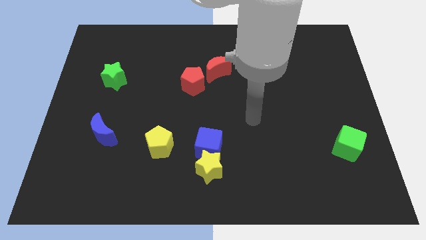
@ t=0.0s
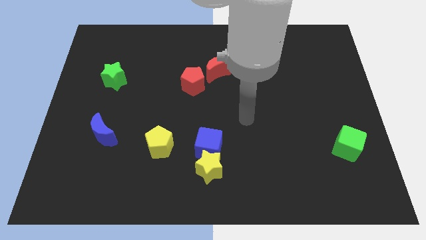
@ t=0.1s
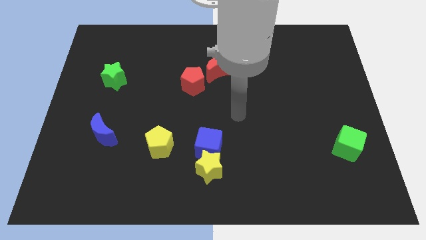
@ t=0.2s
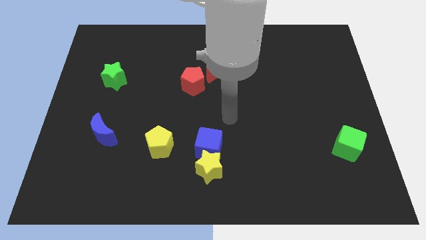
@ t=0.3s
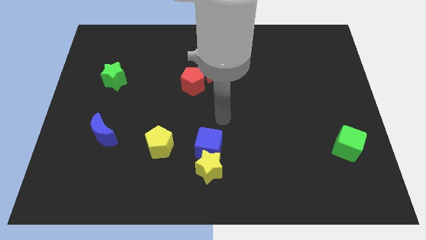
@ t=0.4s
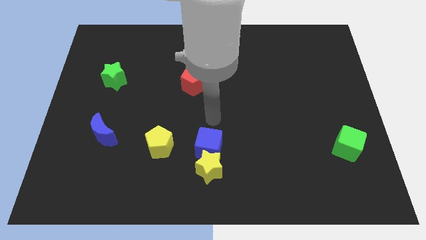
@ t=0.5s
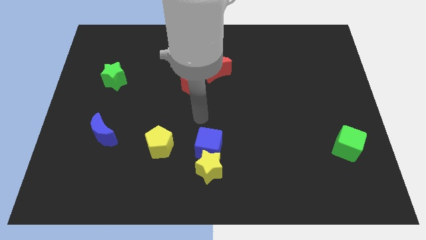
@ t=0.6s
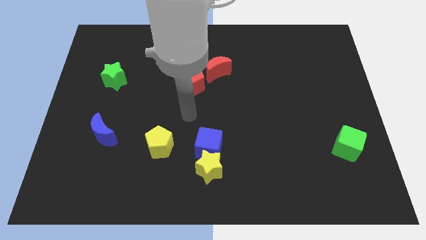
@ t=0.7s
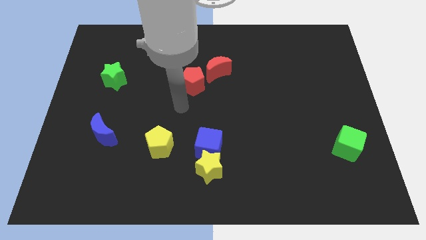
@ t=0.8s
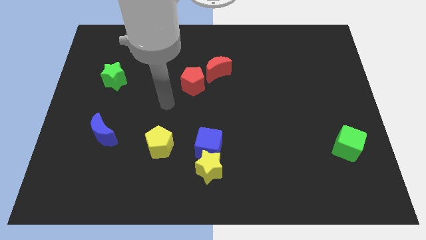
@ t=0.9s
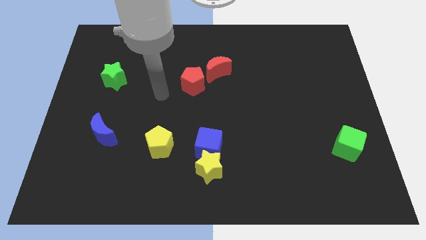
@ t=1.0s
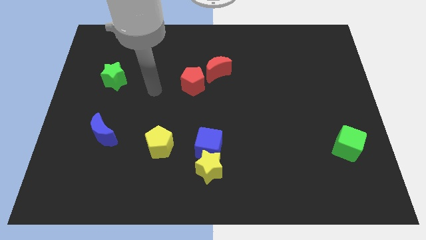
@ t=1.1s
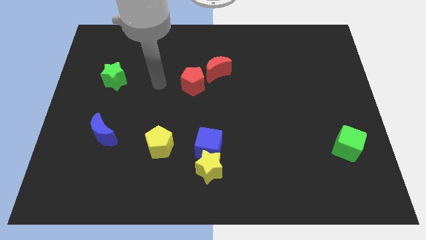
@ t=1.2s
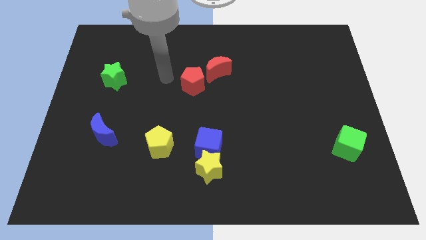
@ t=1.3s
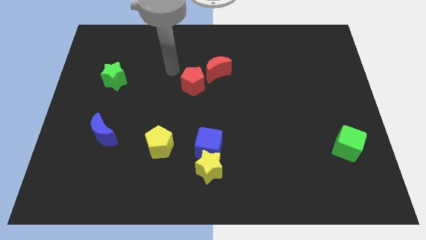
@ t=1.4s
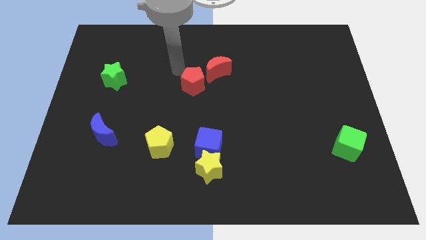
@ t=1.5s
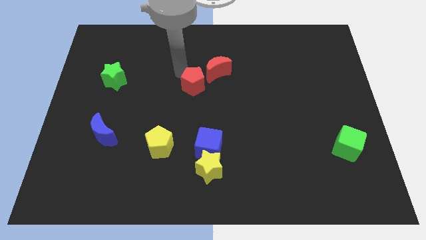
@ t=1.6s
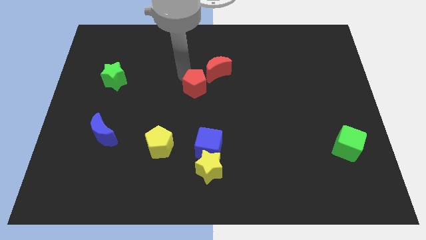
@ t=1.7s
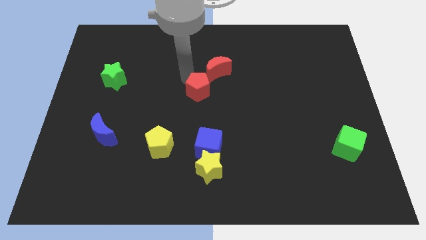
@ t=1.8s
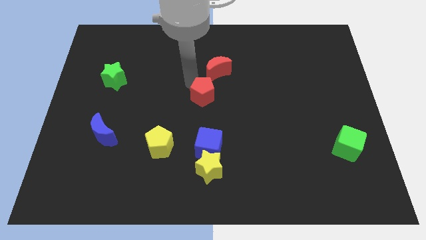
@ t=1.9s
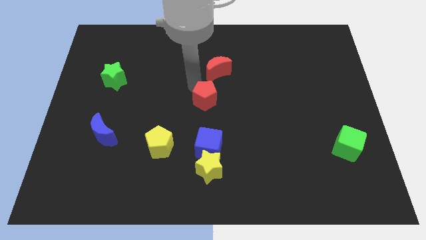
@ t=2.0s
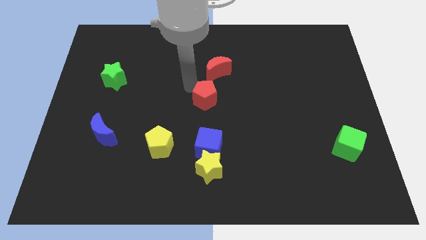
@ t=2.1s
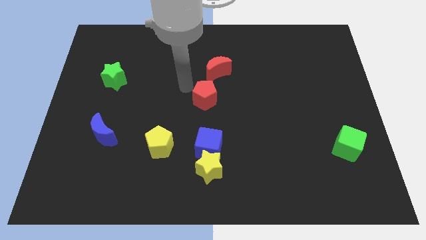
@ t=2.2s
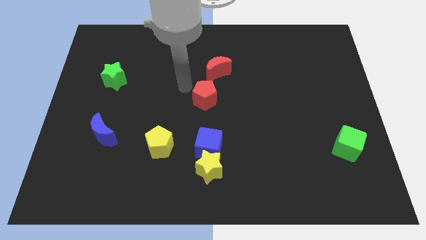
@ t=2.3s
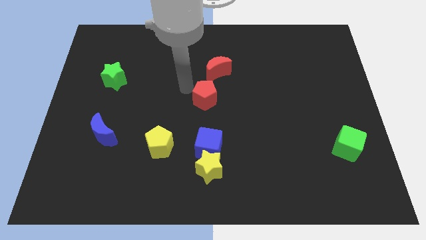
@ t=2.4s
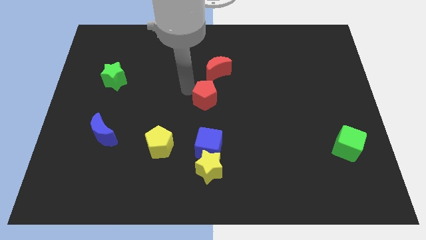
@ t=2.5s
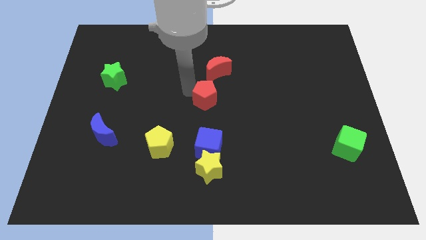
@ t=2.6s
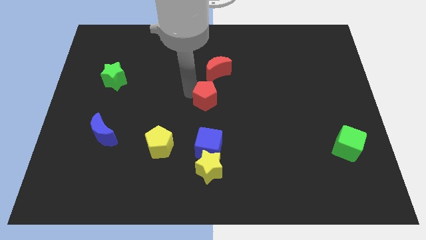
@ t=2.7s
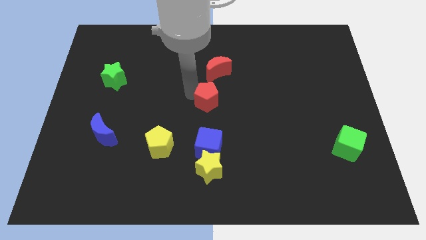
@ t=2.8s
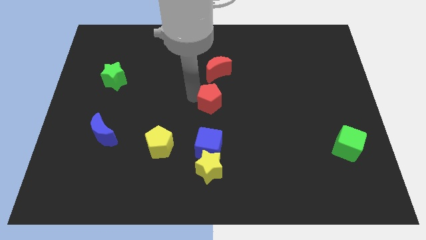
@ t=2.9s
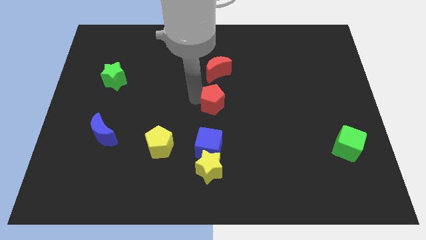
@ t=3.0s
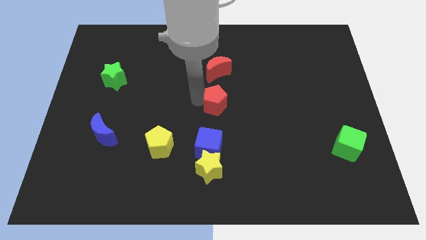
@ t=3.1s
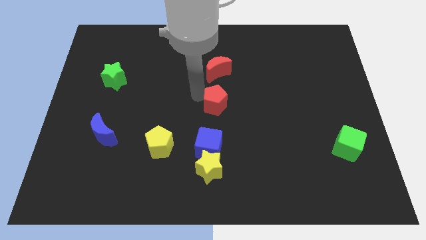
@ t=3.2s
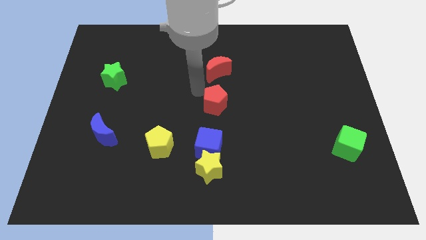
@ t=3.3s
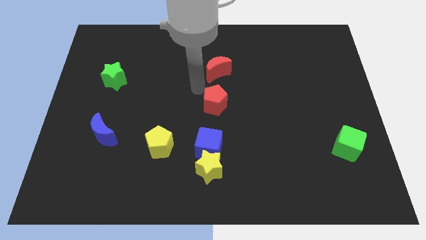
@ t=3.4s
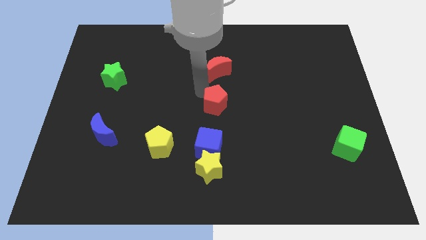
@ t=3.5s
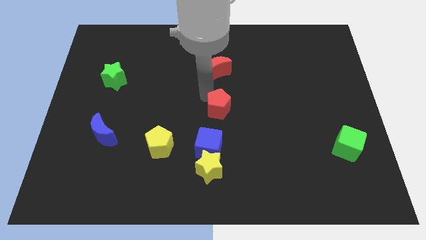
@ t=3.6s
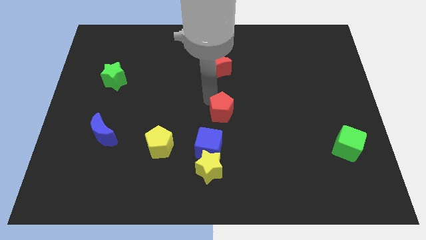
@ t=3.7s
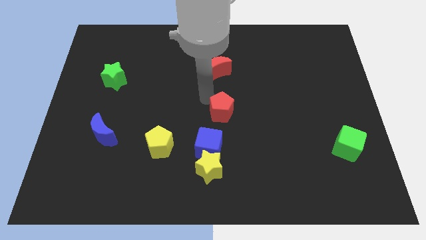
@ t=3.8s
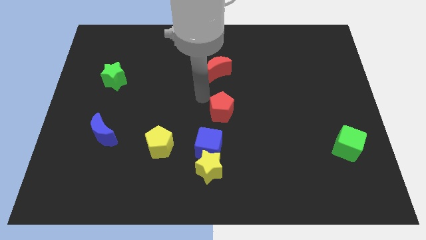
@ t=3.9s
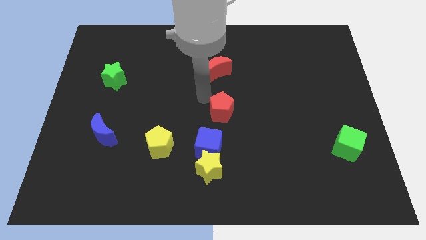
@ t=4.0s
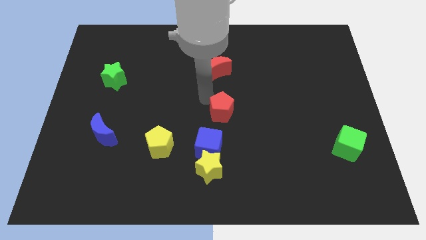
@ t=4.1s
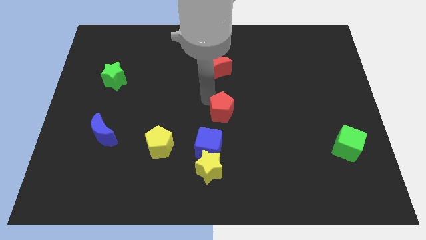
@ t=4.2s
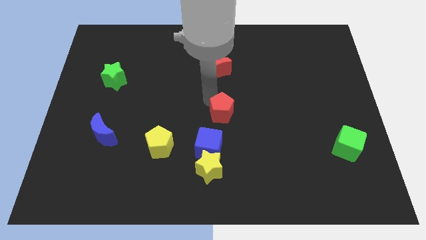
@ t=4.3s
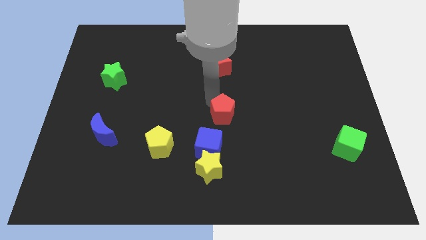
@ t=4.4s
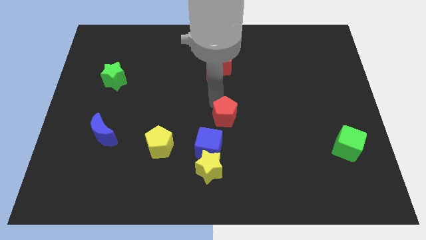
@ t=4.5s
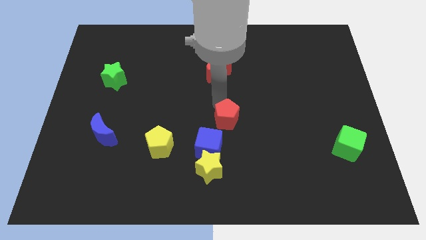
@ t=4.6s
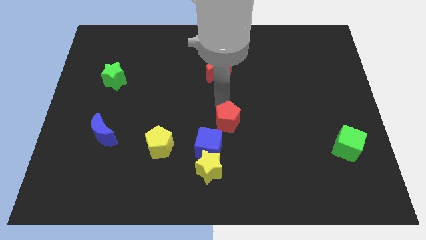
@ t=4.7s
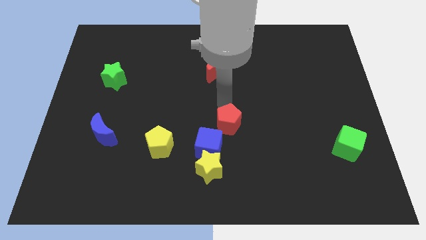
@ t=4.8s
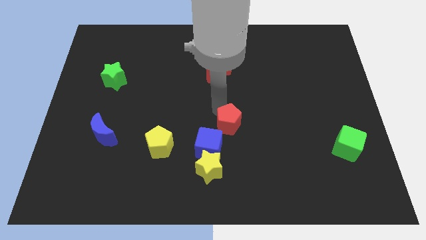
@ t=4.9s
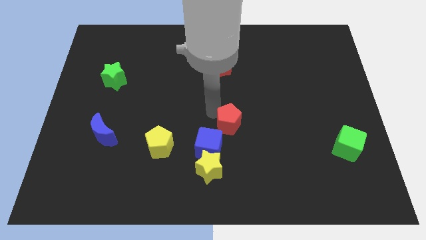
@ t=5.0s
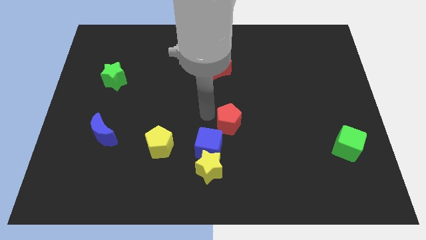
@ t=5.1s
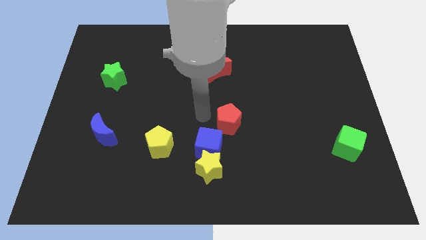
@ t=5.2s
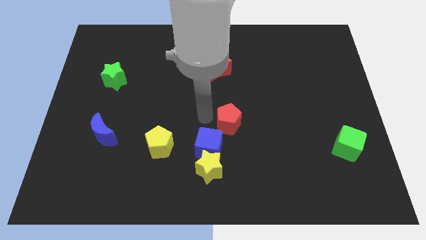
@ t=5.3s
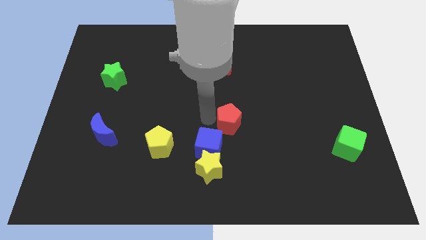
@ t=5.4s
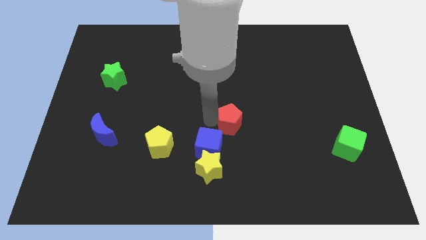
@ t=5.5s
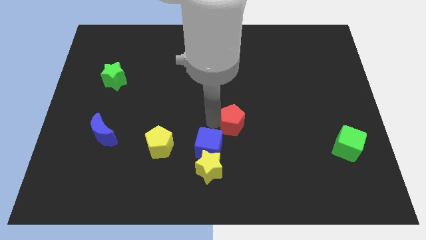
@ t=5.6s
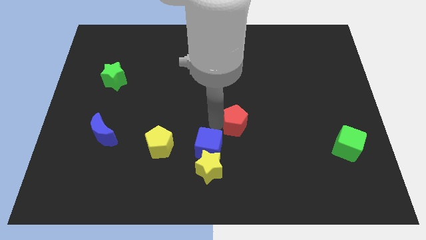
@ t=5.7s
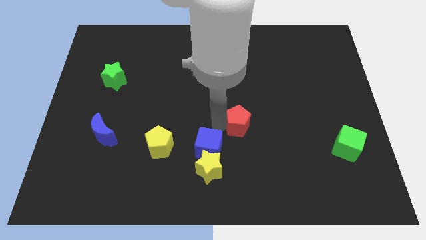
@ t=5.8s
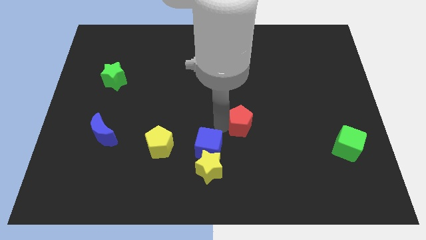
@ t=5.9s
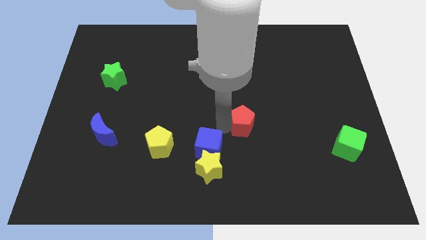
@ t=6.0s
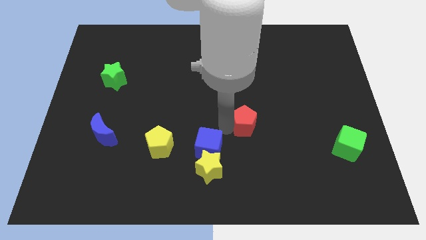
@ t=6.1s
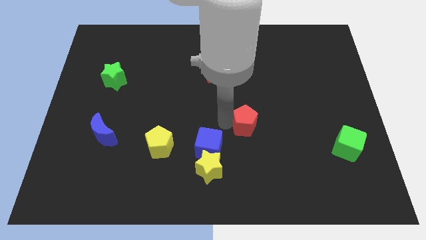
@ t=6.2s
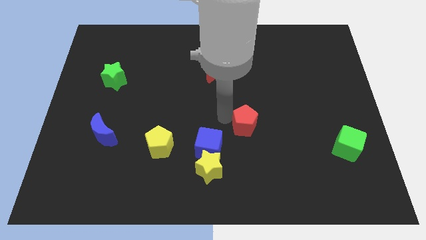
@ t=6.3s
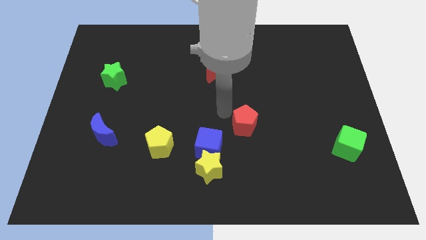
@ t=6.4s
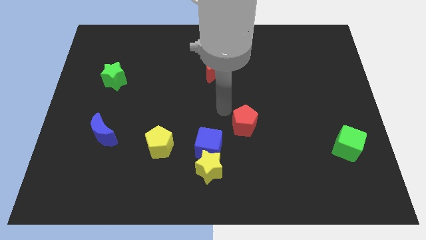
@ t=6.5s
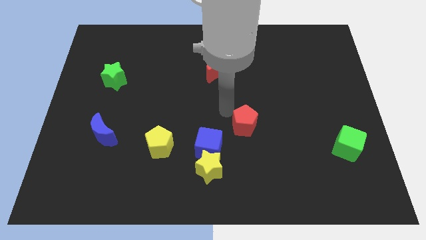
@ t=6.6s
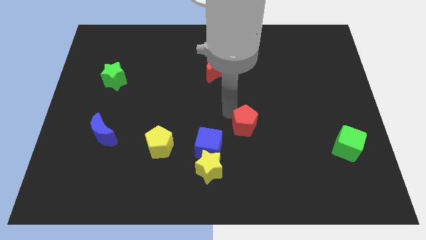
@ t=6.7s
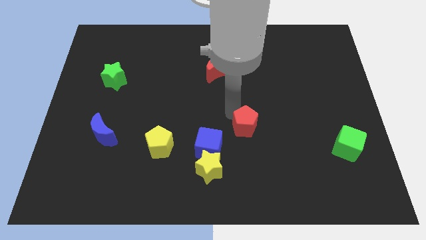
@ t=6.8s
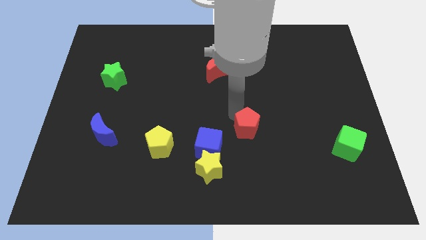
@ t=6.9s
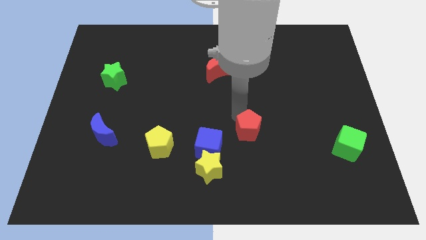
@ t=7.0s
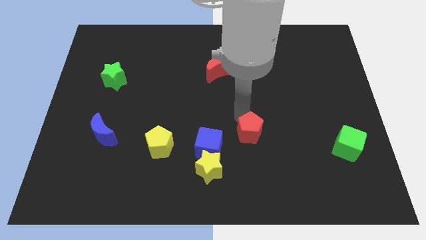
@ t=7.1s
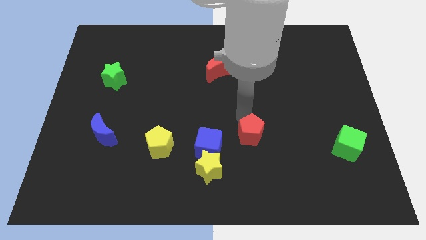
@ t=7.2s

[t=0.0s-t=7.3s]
slide the red pentagon diagonally downwards and to the right

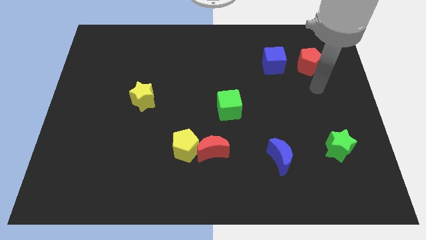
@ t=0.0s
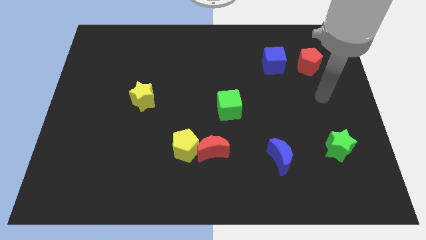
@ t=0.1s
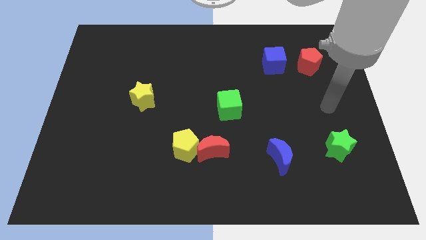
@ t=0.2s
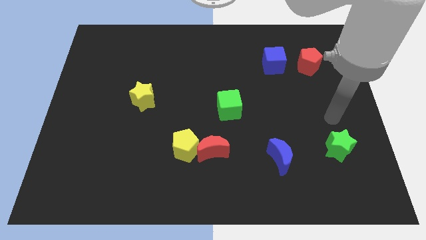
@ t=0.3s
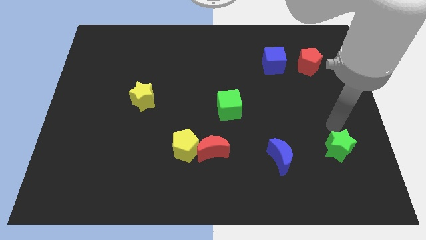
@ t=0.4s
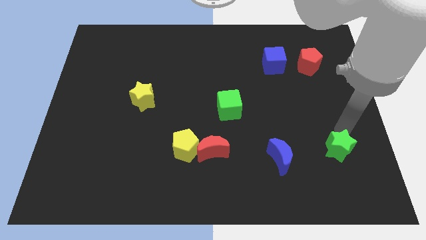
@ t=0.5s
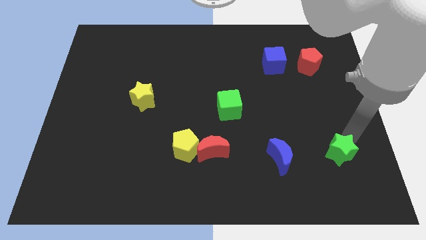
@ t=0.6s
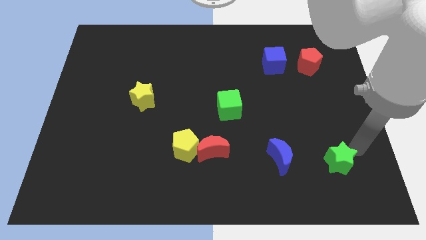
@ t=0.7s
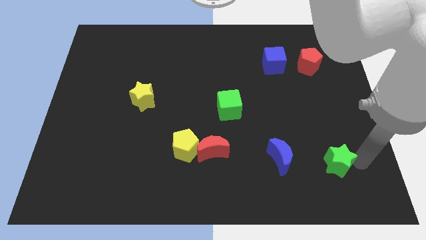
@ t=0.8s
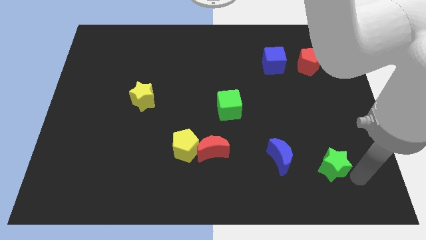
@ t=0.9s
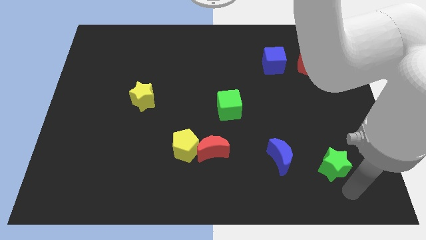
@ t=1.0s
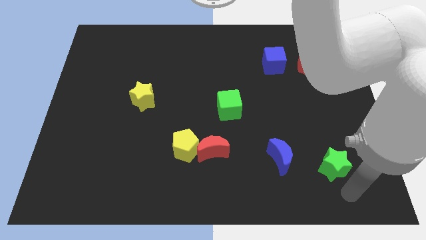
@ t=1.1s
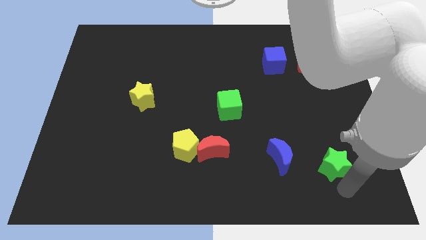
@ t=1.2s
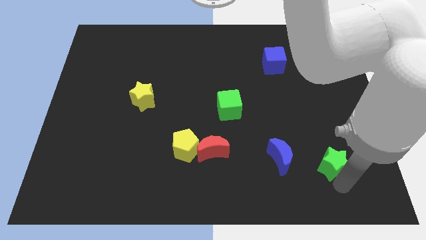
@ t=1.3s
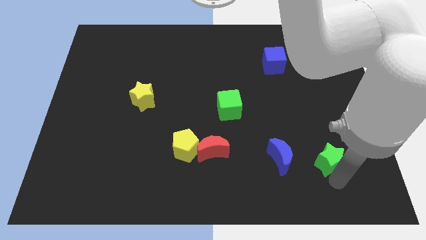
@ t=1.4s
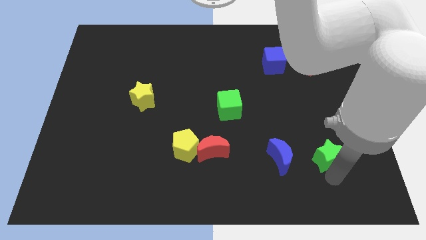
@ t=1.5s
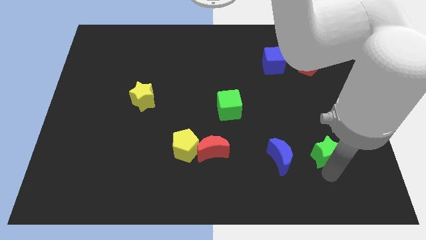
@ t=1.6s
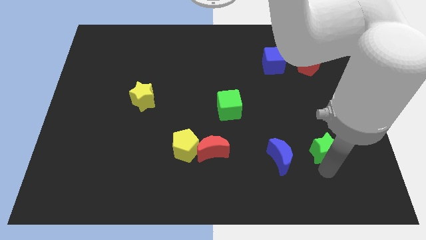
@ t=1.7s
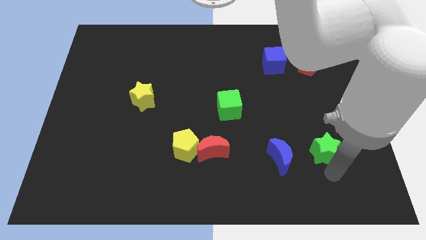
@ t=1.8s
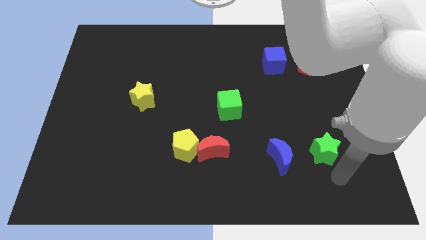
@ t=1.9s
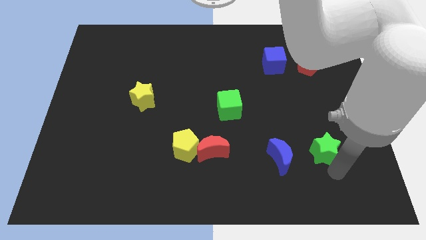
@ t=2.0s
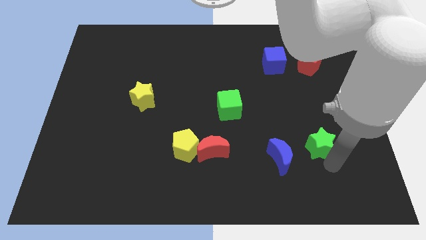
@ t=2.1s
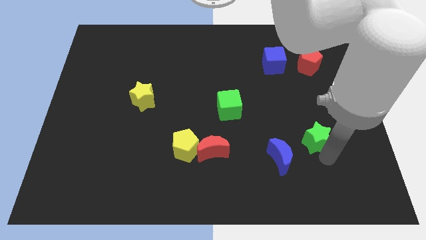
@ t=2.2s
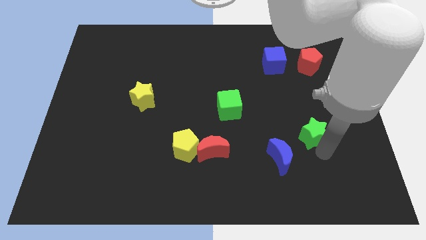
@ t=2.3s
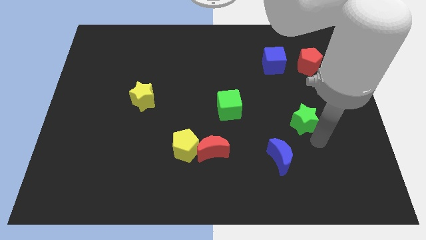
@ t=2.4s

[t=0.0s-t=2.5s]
slide the green star slightly upwards and then left
